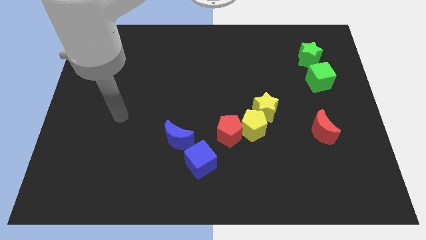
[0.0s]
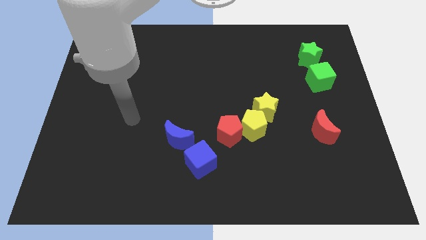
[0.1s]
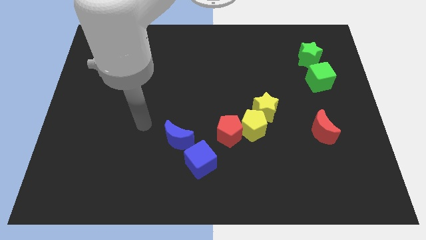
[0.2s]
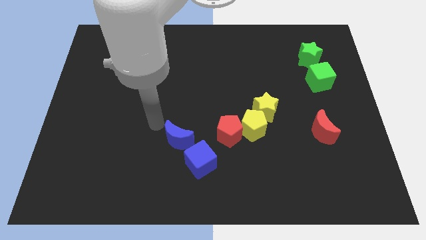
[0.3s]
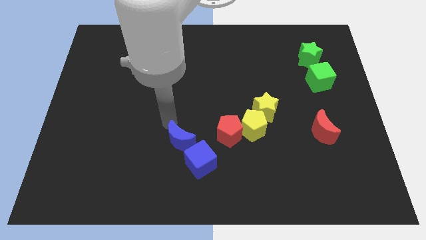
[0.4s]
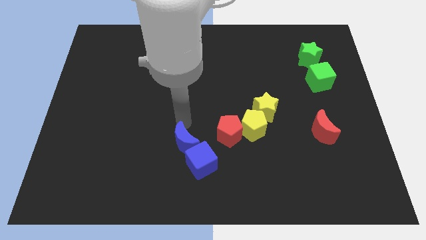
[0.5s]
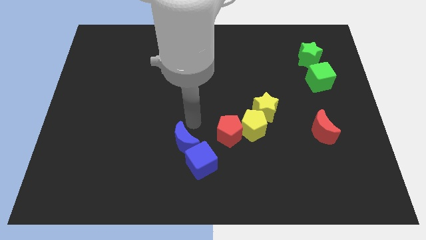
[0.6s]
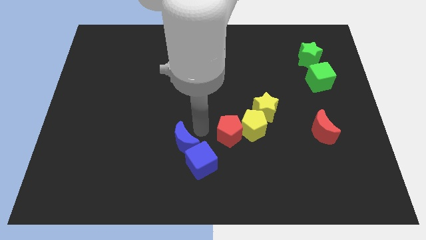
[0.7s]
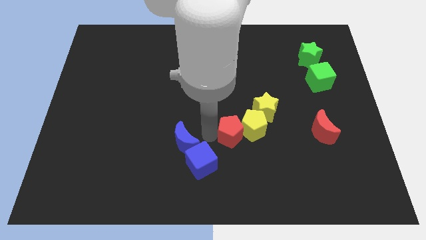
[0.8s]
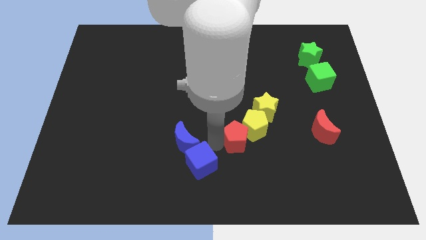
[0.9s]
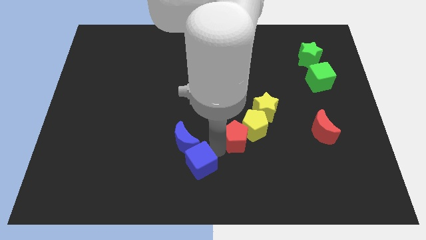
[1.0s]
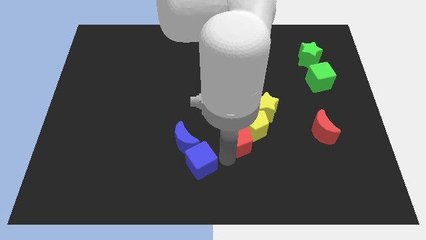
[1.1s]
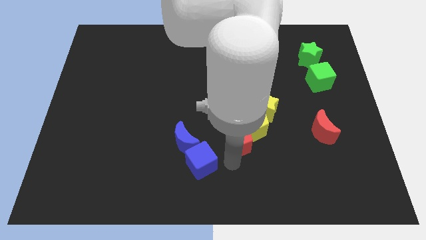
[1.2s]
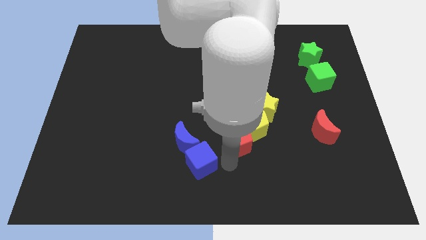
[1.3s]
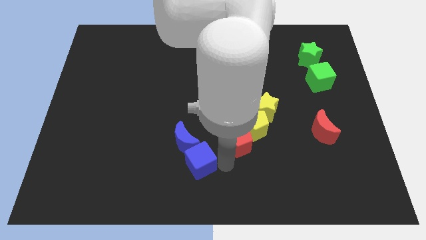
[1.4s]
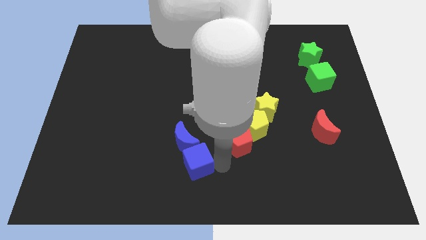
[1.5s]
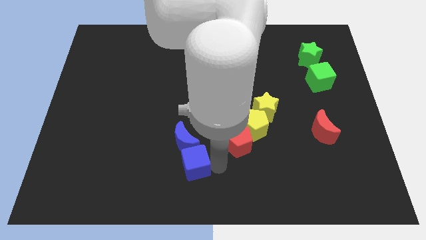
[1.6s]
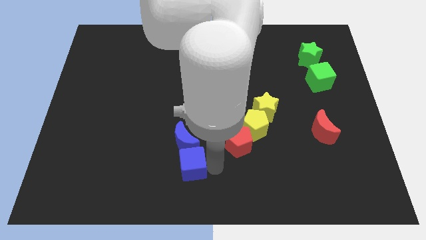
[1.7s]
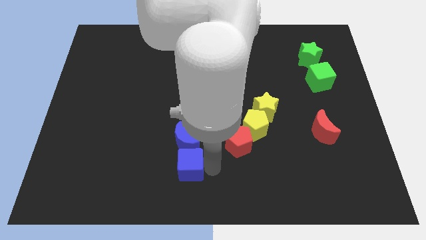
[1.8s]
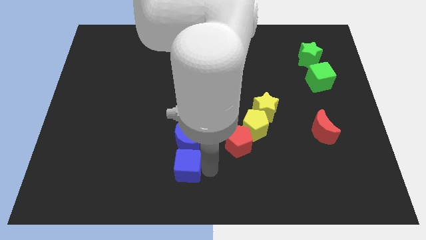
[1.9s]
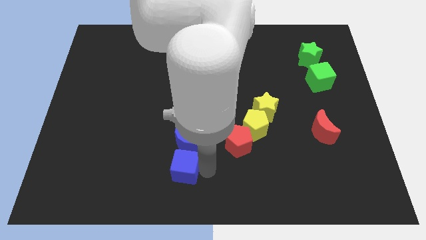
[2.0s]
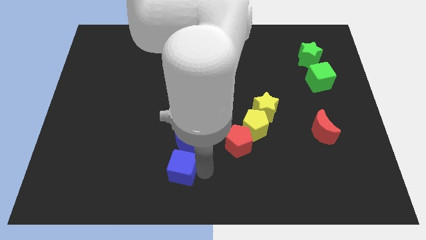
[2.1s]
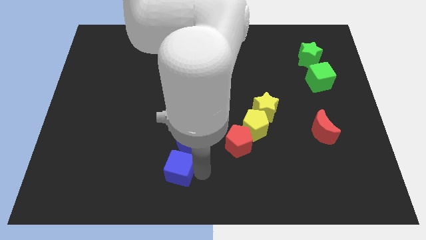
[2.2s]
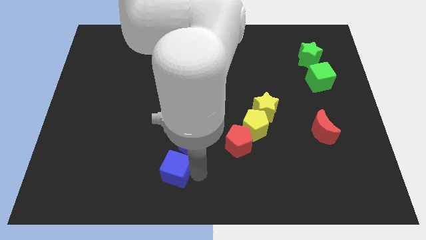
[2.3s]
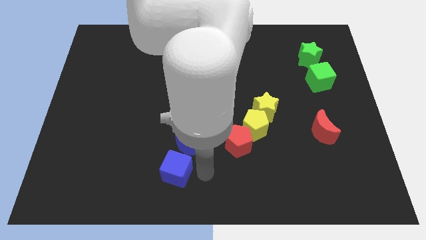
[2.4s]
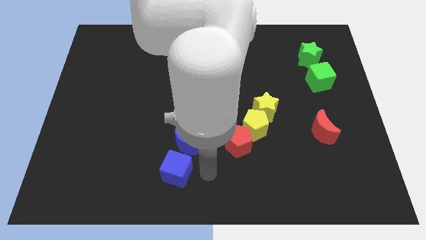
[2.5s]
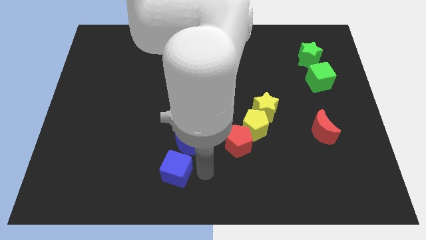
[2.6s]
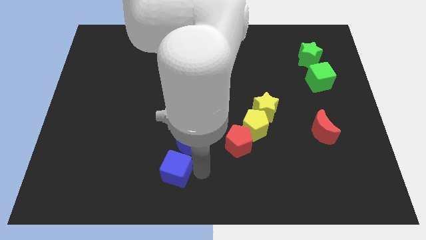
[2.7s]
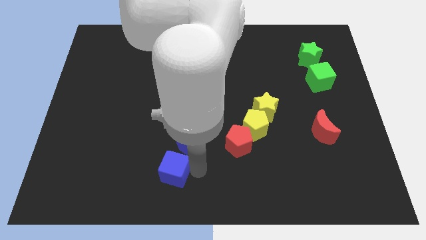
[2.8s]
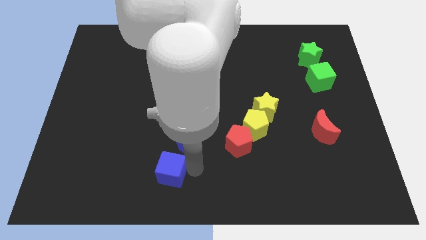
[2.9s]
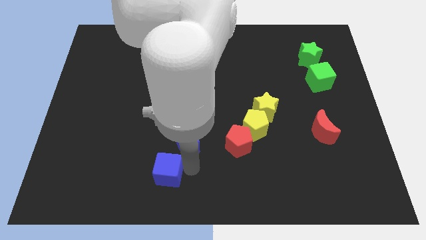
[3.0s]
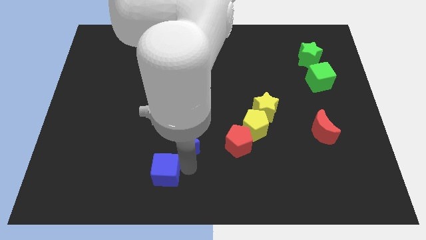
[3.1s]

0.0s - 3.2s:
slightly push the blue cube to the left

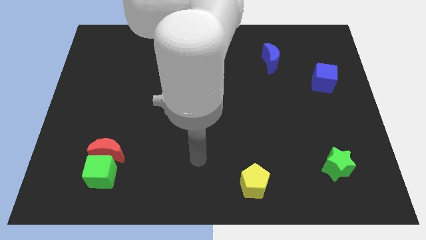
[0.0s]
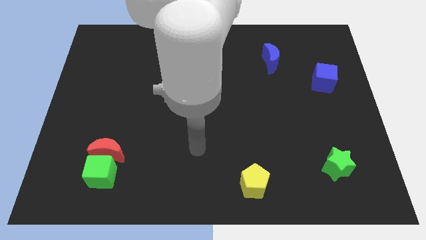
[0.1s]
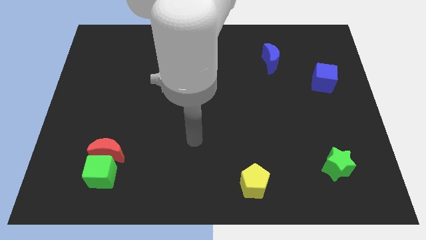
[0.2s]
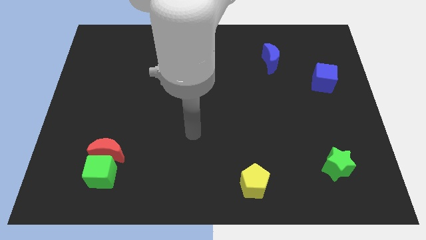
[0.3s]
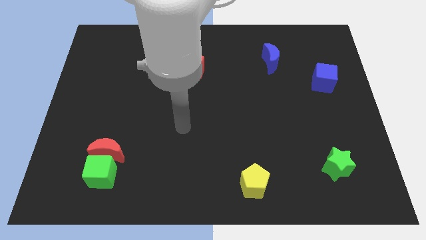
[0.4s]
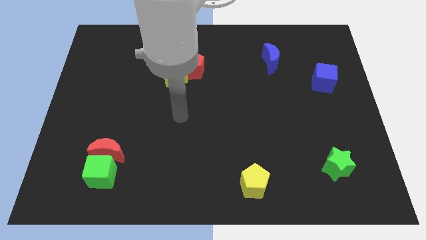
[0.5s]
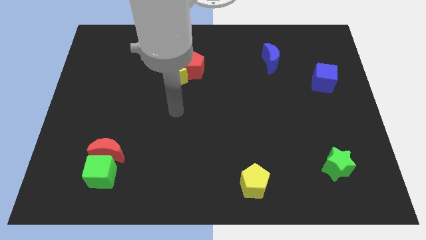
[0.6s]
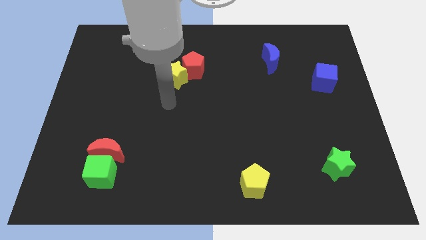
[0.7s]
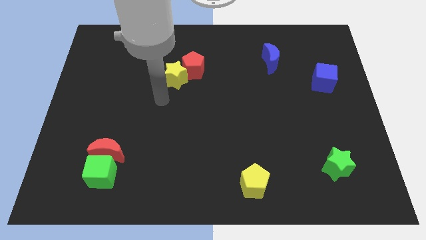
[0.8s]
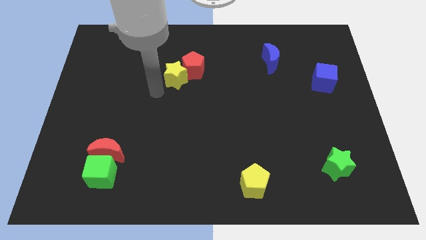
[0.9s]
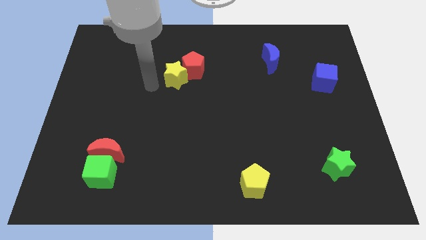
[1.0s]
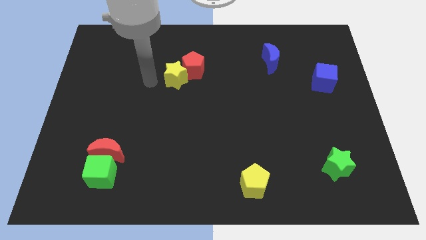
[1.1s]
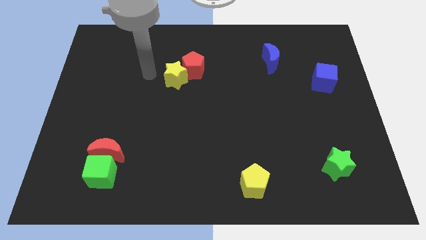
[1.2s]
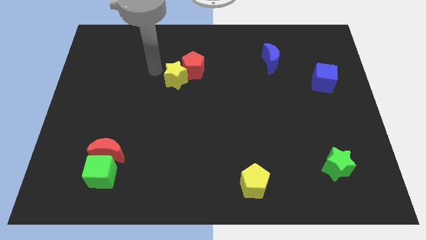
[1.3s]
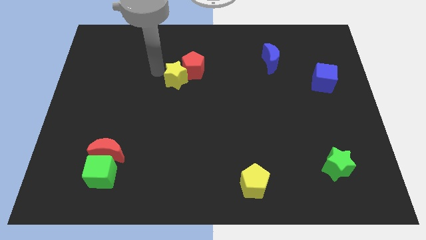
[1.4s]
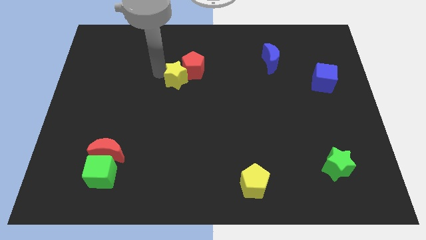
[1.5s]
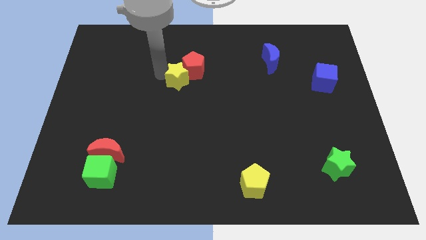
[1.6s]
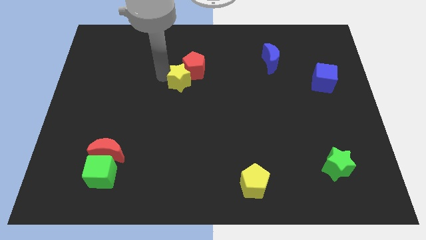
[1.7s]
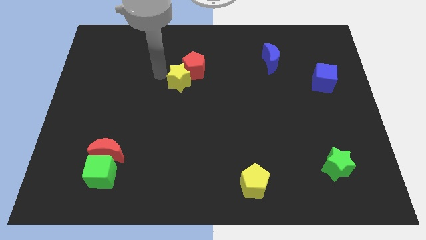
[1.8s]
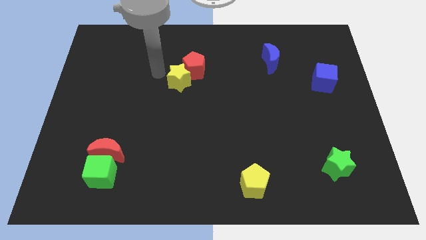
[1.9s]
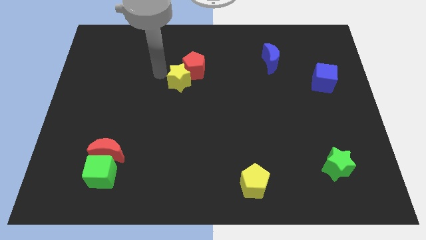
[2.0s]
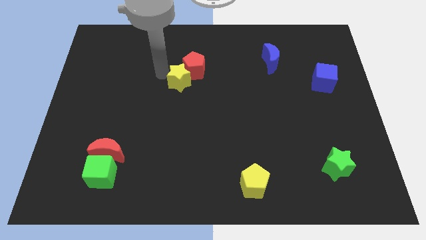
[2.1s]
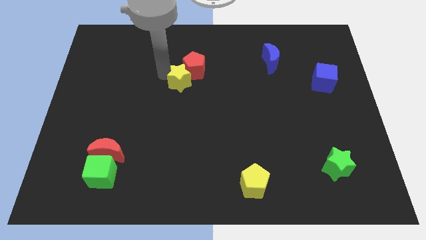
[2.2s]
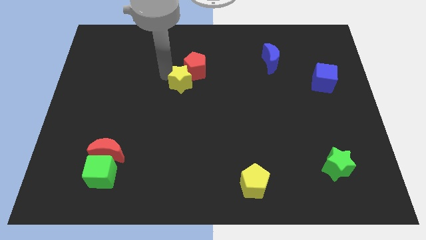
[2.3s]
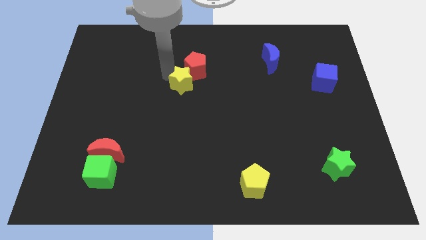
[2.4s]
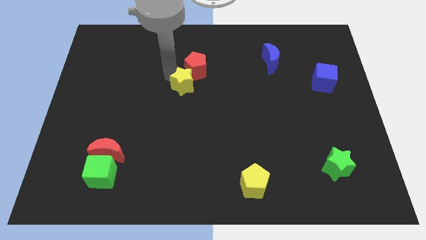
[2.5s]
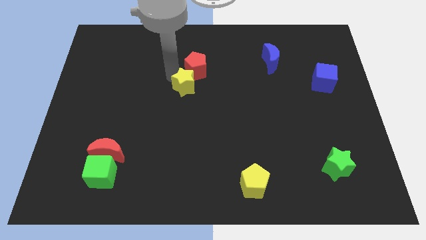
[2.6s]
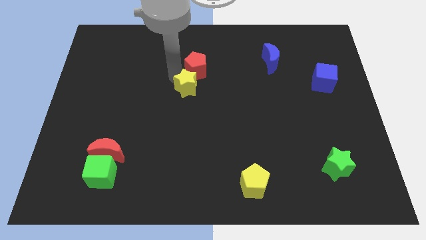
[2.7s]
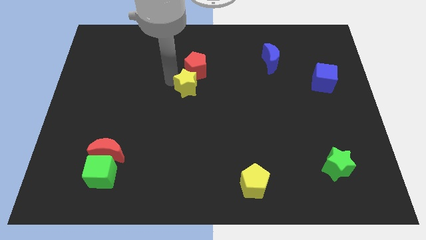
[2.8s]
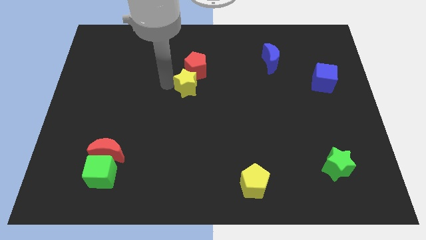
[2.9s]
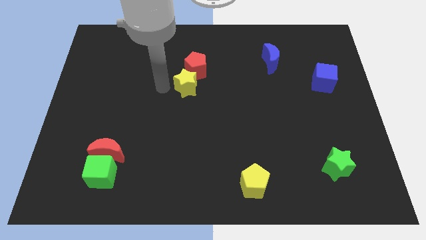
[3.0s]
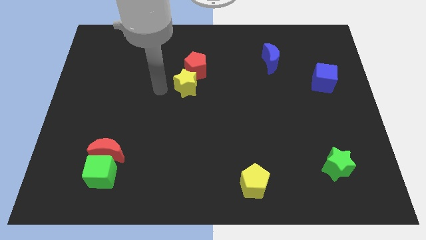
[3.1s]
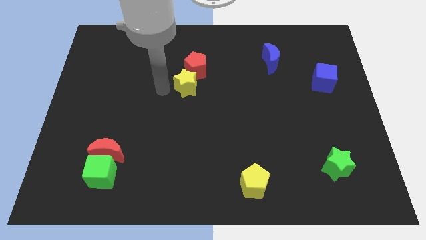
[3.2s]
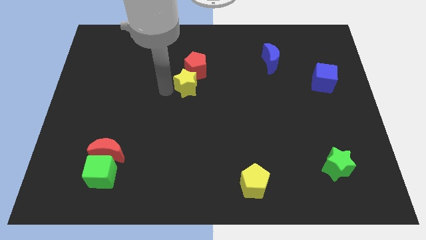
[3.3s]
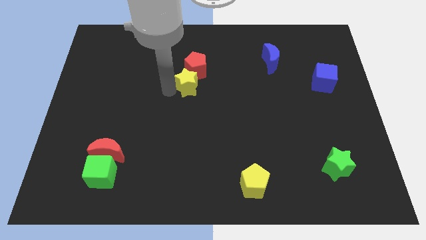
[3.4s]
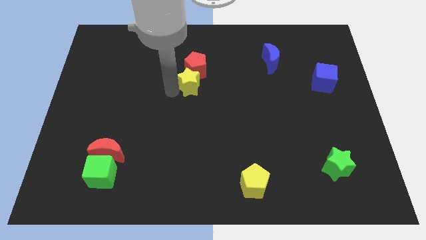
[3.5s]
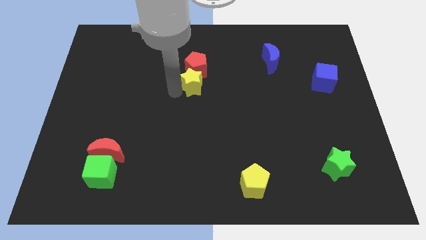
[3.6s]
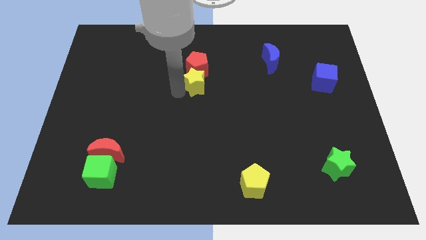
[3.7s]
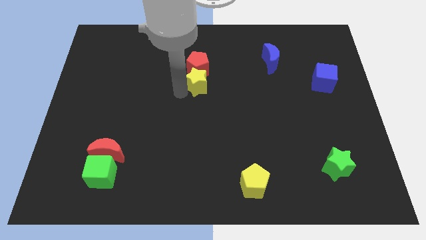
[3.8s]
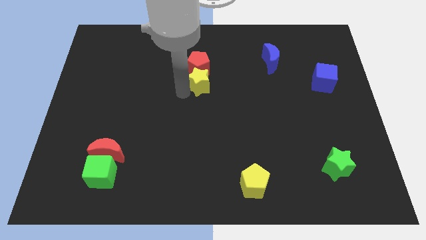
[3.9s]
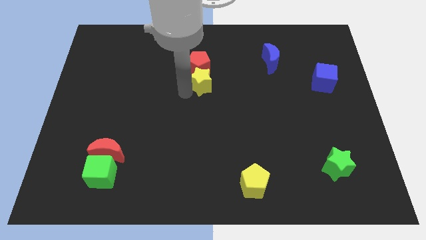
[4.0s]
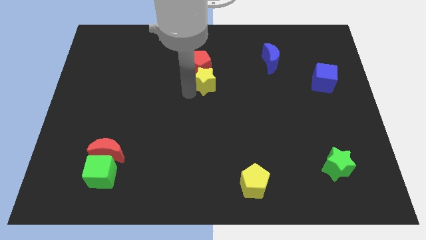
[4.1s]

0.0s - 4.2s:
push the yellow star slightly to the right

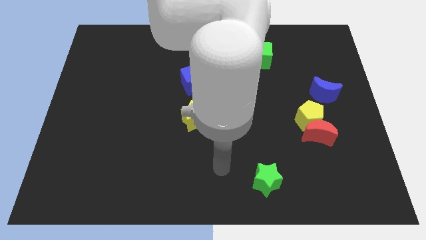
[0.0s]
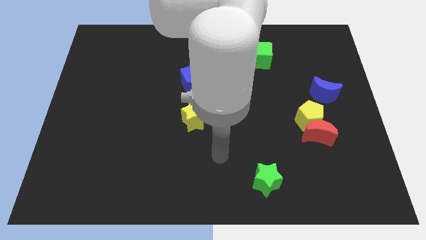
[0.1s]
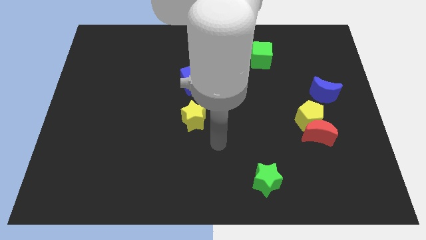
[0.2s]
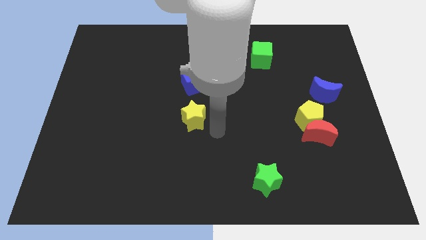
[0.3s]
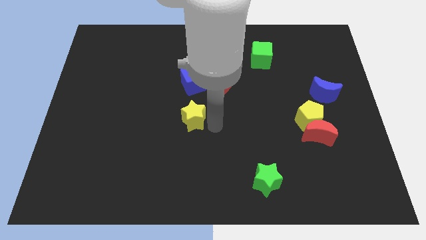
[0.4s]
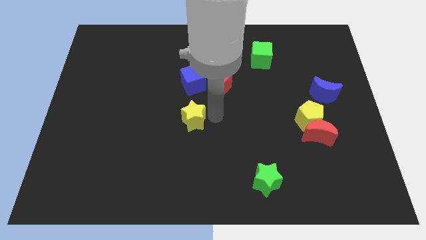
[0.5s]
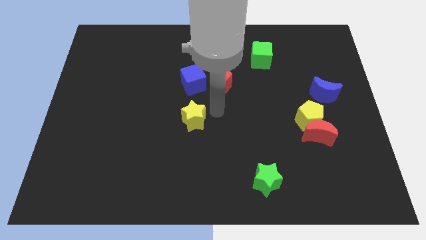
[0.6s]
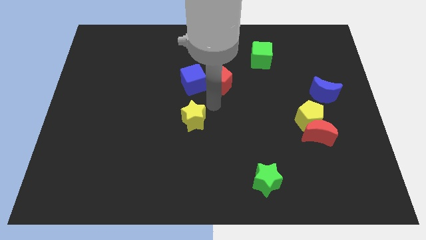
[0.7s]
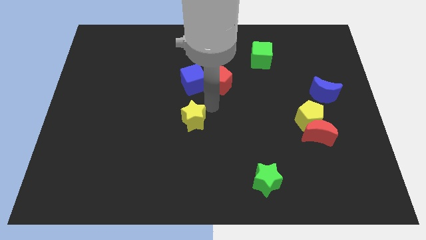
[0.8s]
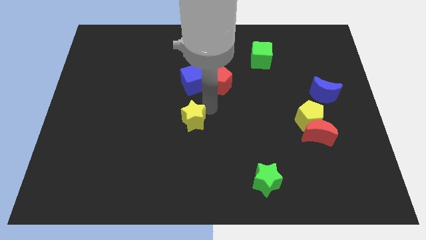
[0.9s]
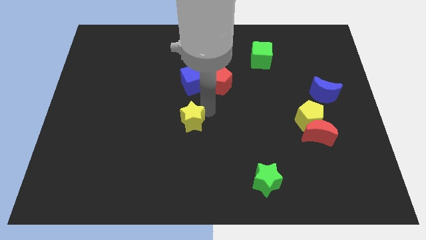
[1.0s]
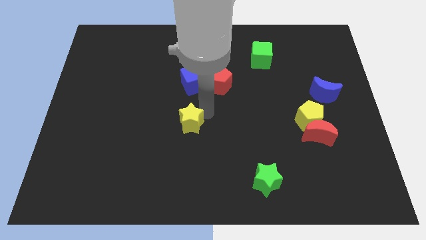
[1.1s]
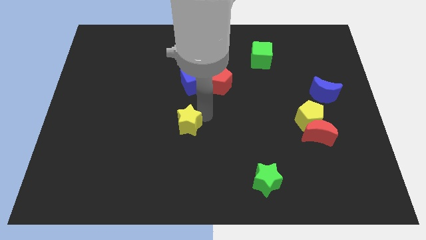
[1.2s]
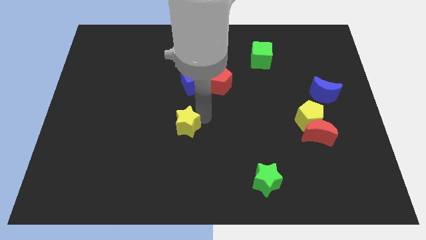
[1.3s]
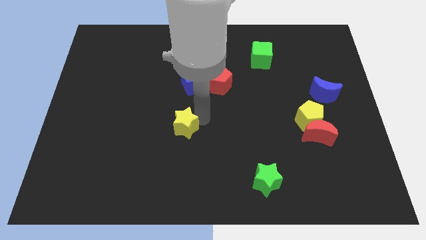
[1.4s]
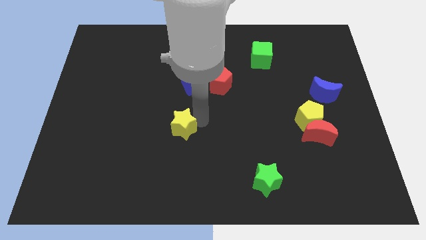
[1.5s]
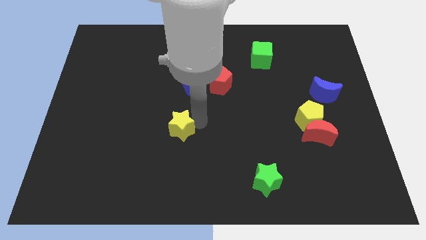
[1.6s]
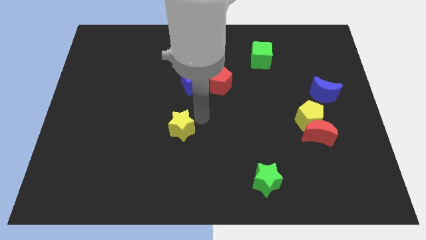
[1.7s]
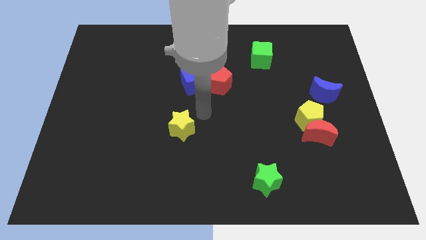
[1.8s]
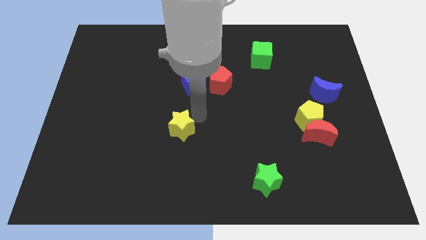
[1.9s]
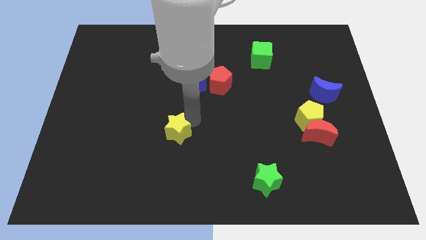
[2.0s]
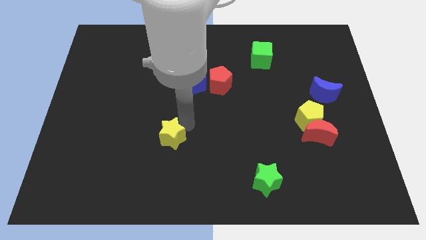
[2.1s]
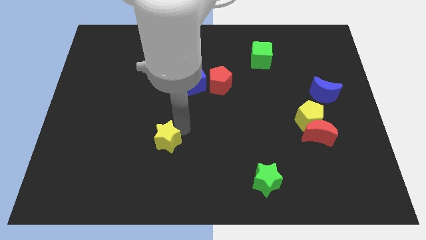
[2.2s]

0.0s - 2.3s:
slide the yellow star a little downwards and left
